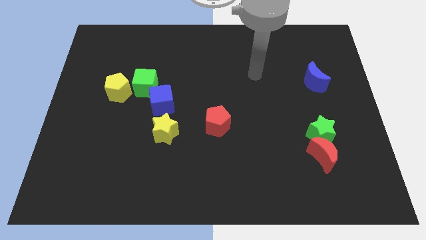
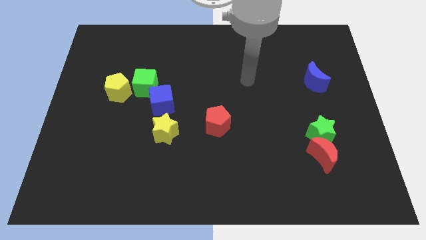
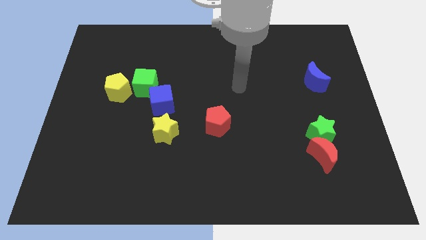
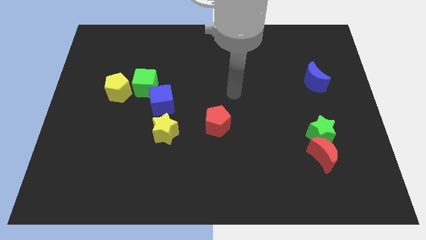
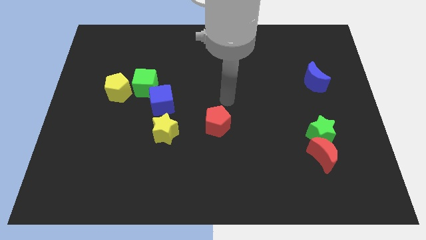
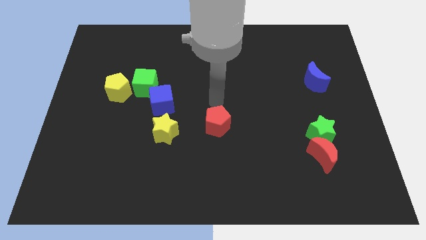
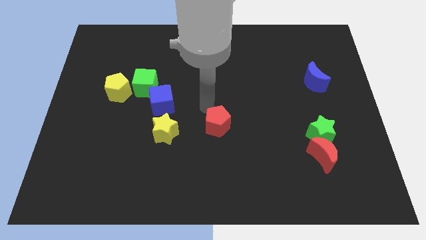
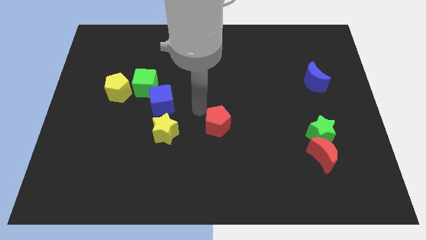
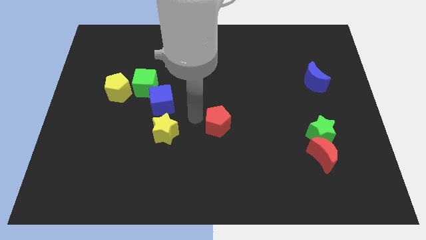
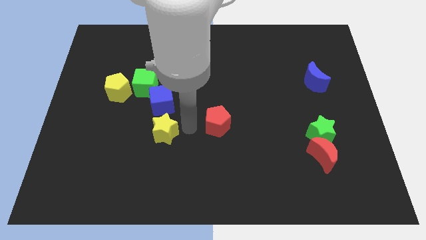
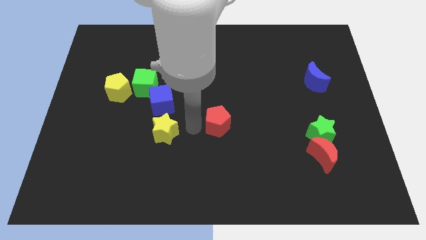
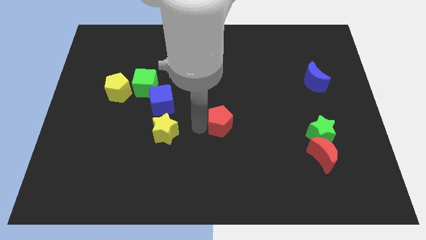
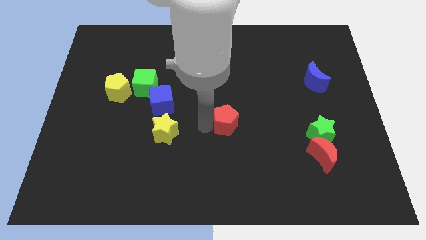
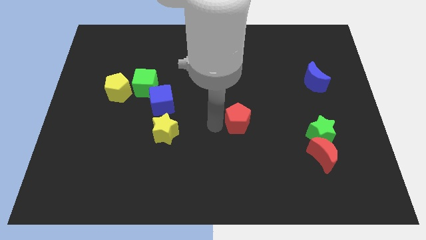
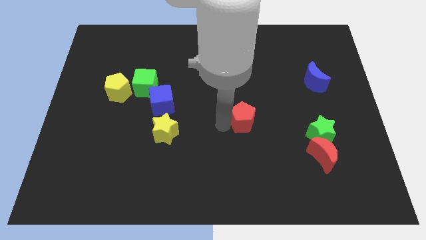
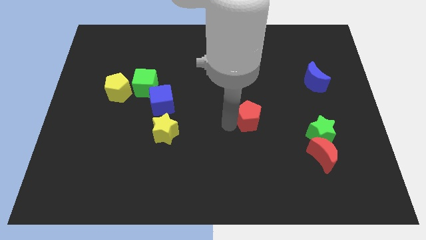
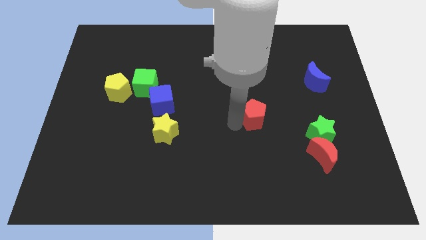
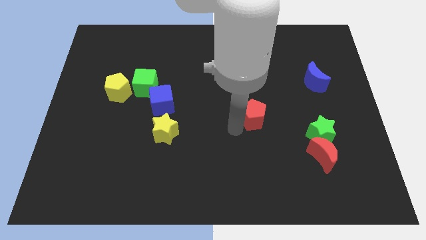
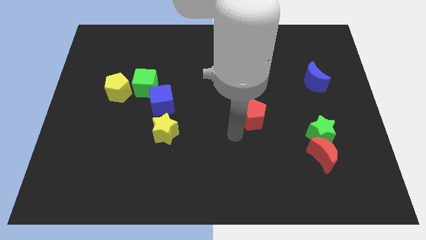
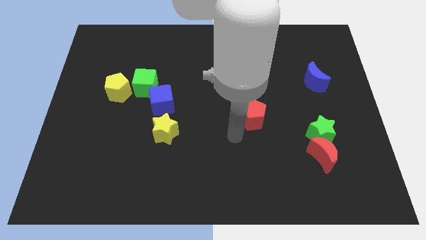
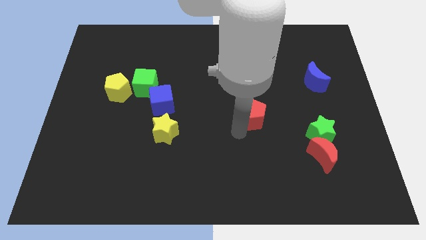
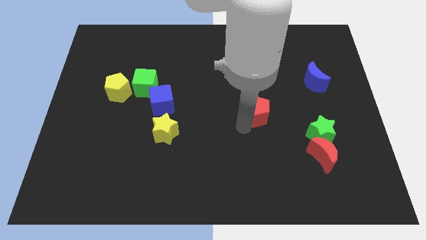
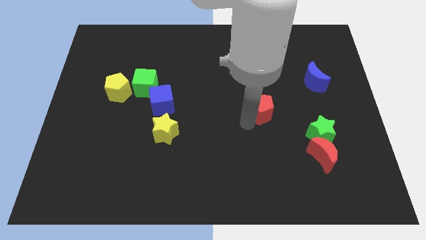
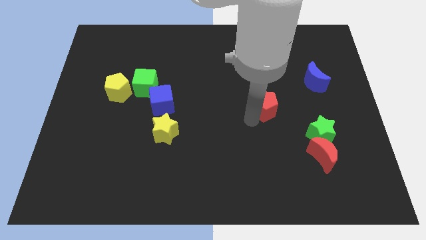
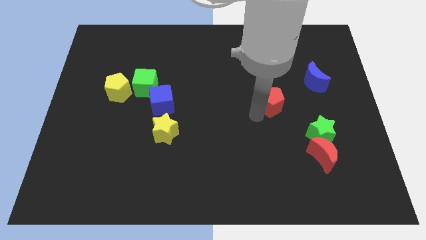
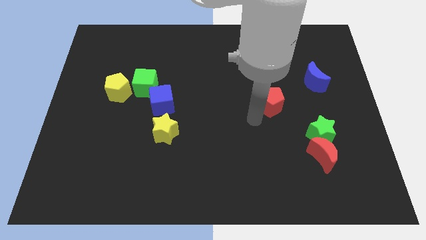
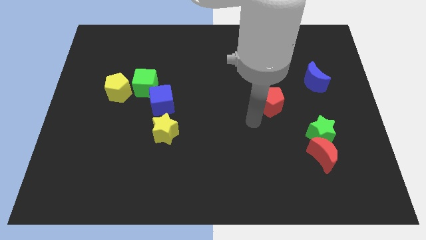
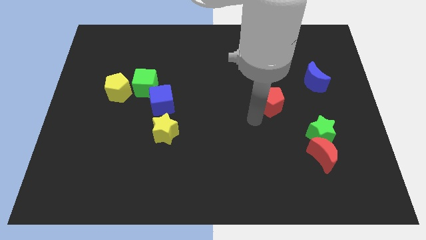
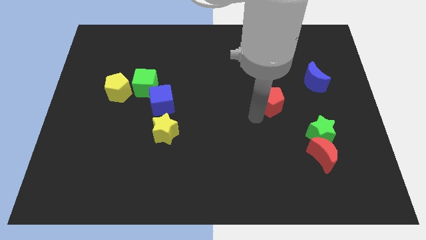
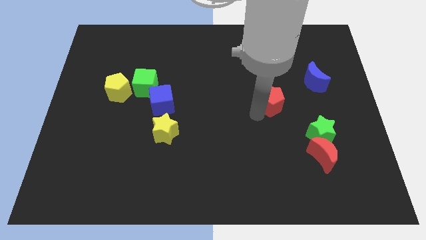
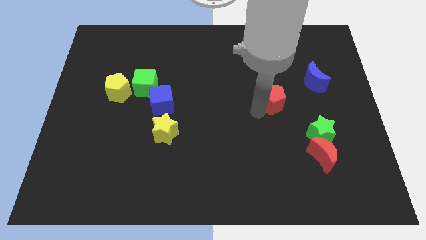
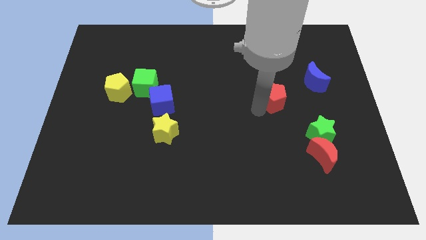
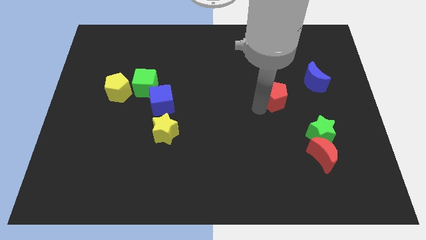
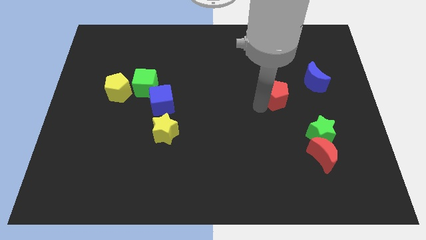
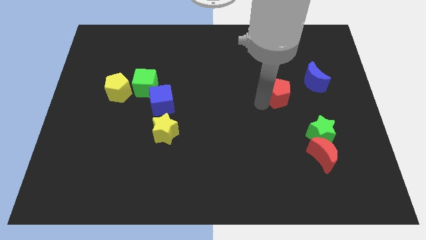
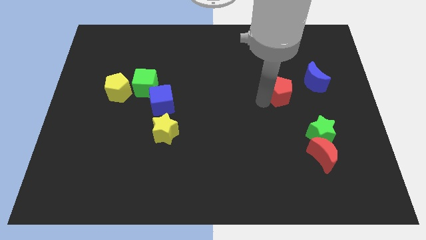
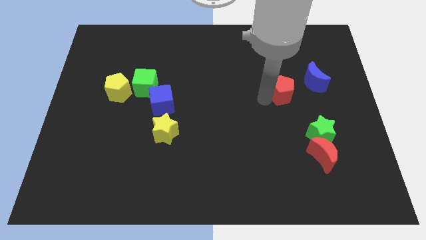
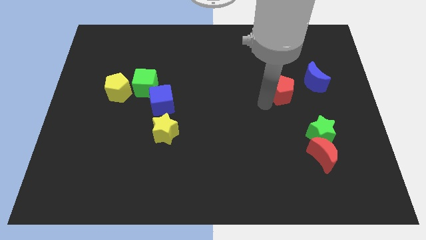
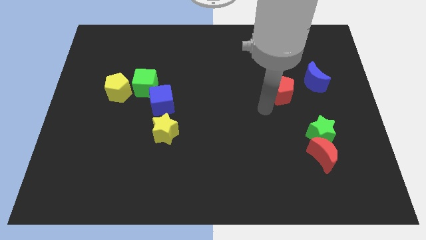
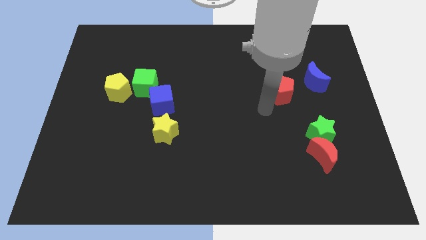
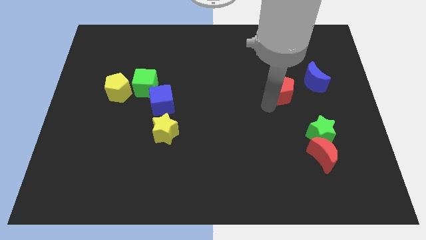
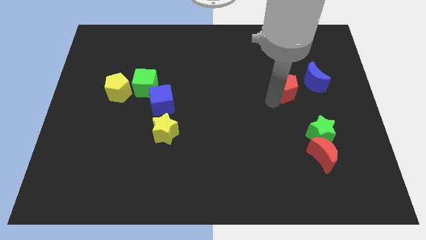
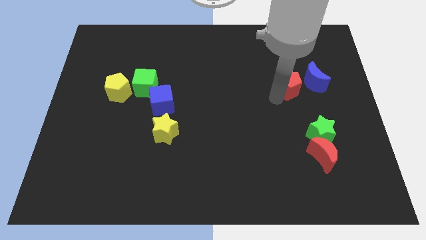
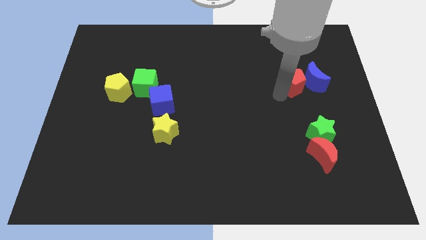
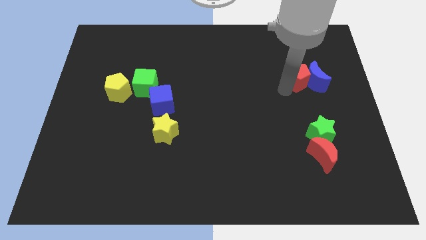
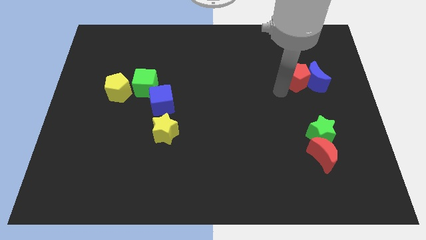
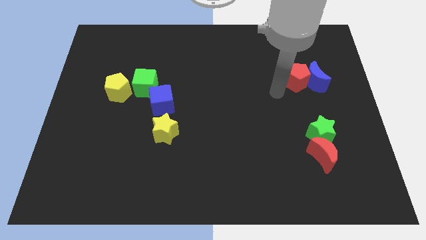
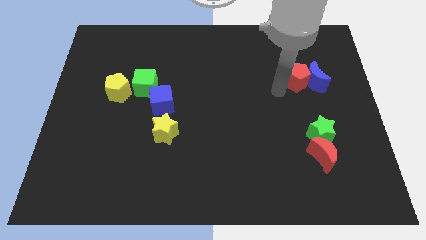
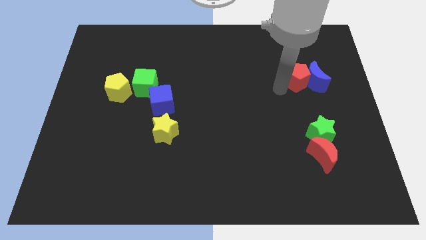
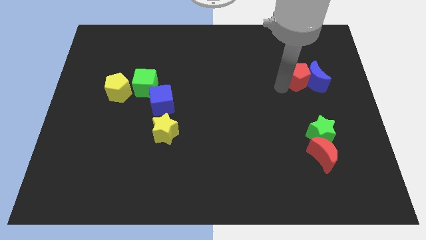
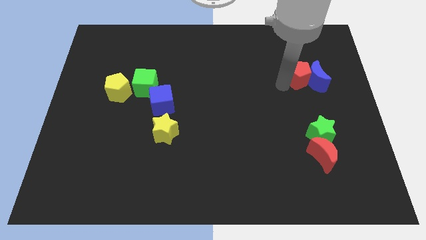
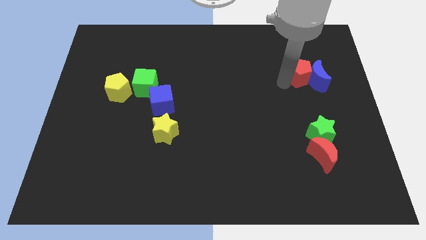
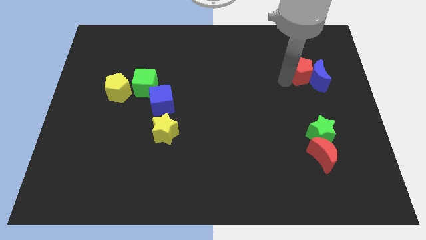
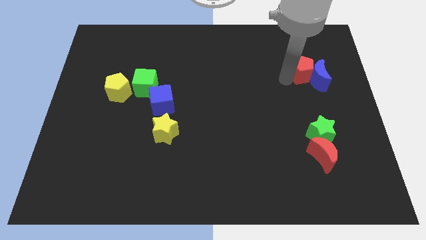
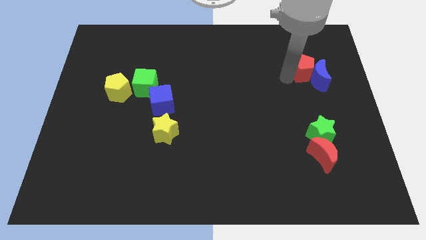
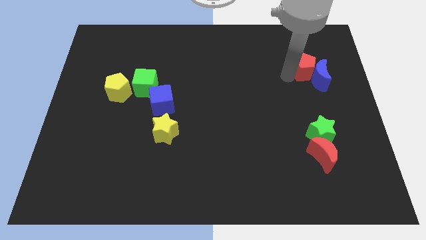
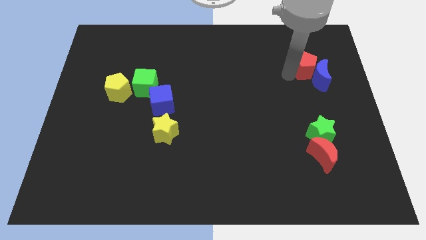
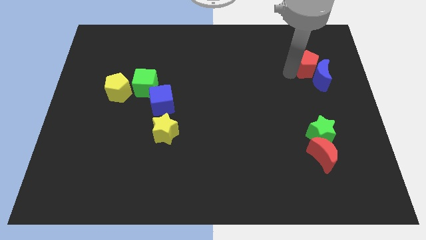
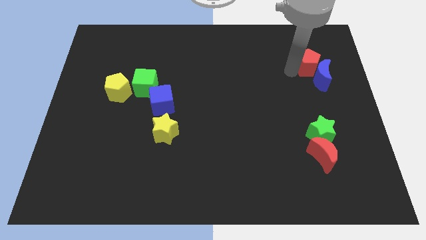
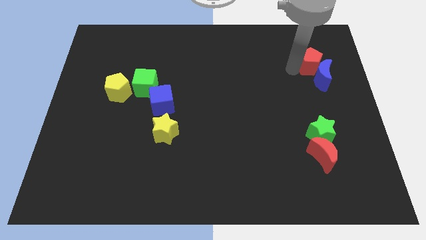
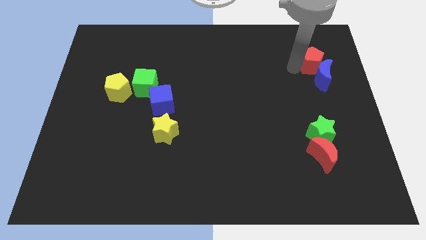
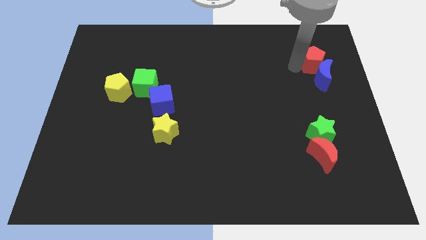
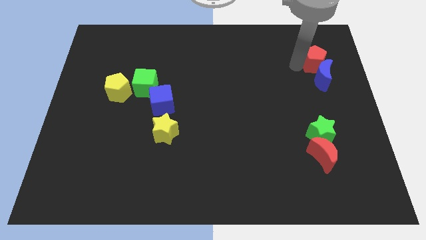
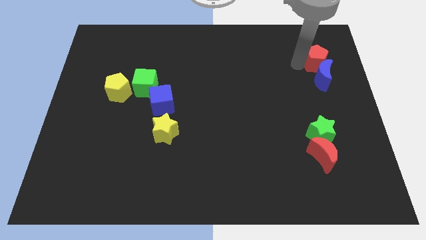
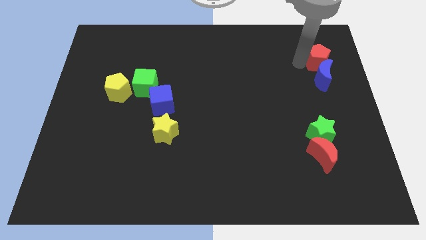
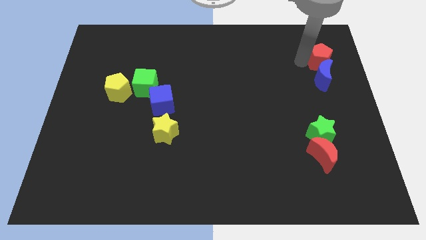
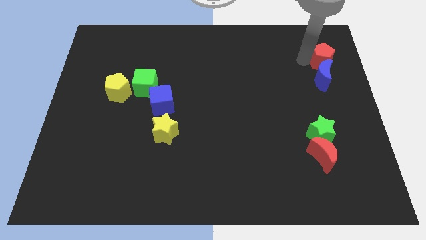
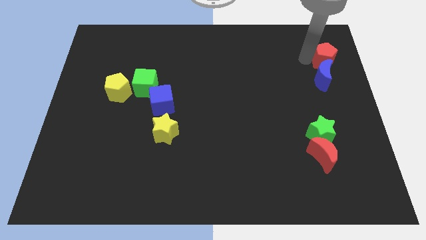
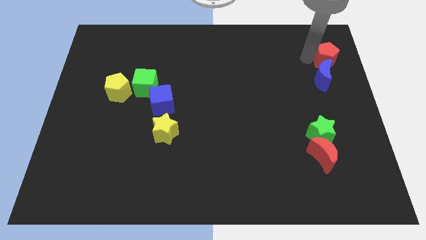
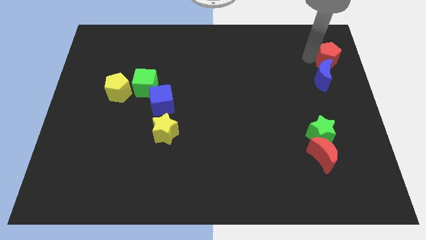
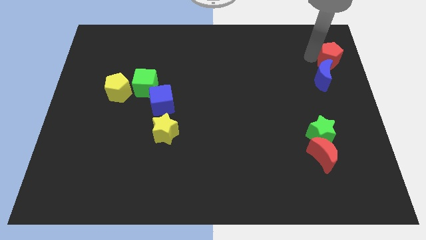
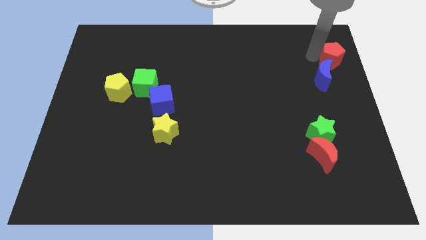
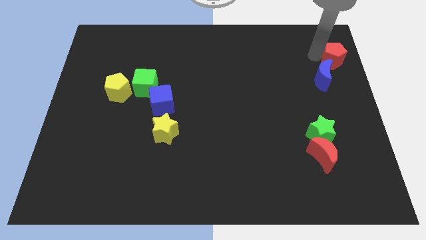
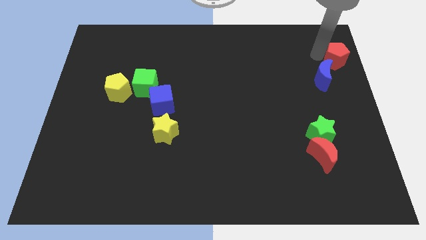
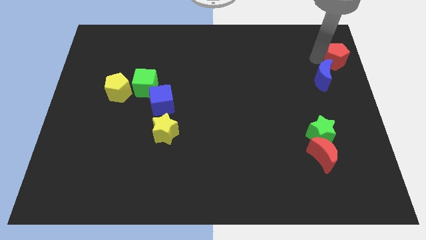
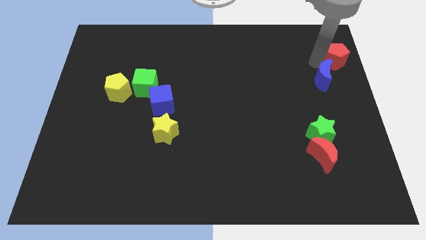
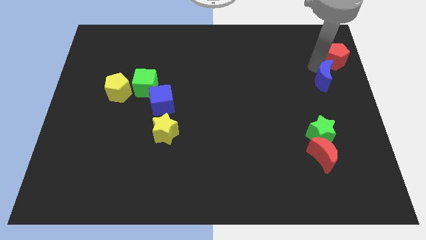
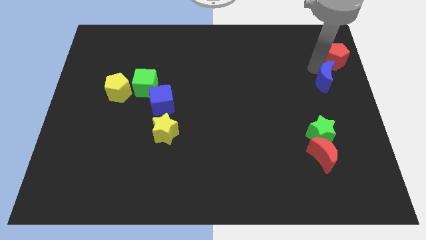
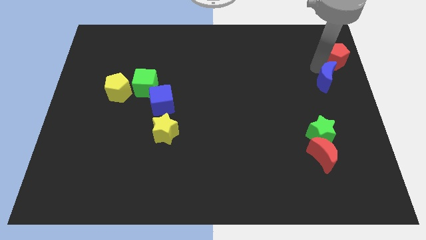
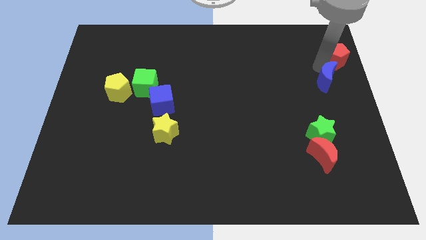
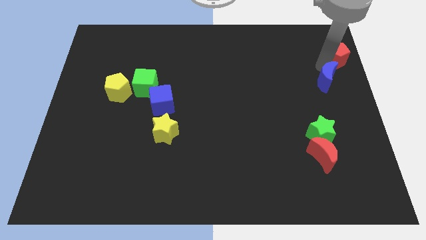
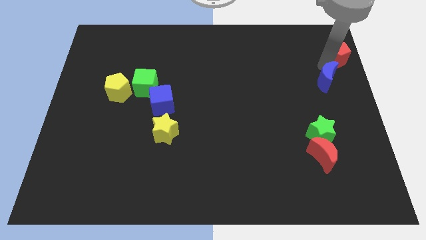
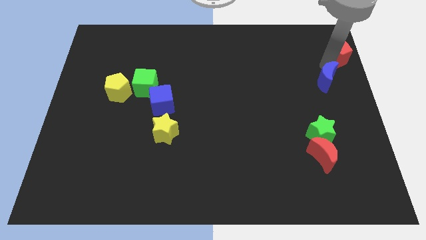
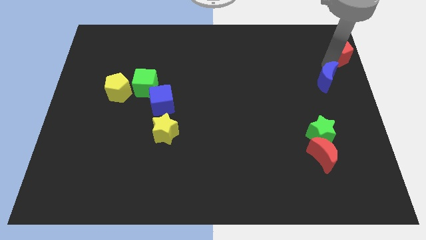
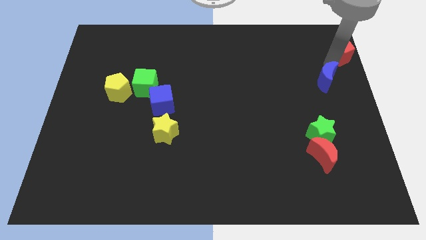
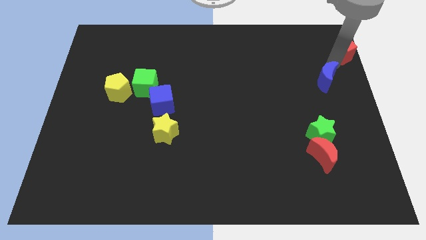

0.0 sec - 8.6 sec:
slide the red pentagon to the upper right corner
